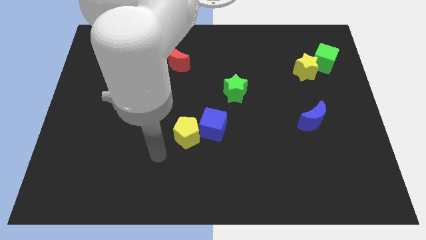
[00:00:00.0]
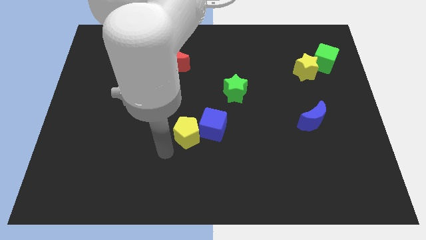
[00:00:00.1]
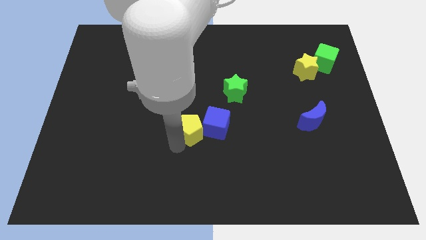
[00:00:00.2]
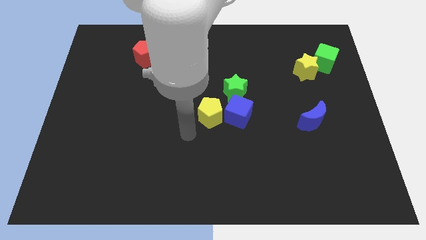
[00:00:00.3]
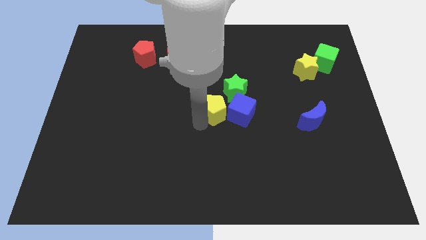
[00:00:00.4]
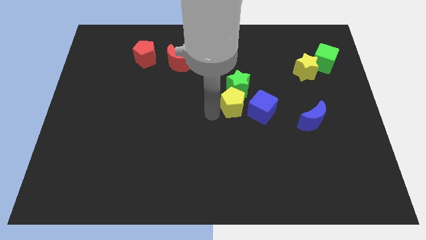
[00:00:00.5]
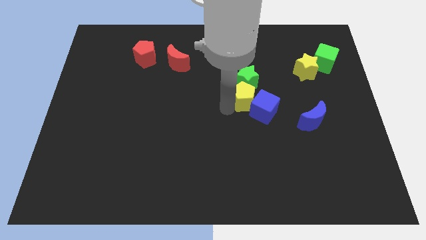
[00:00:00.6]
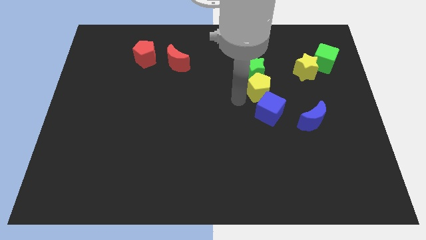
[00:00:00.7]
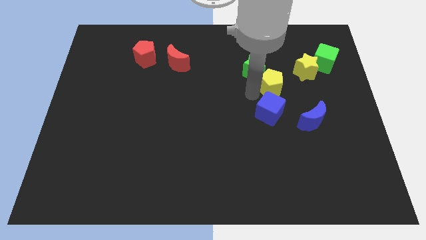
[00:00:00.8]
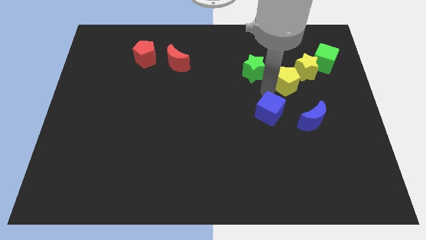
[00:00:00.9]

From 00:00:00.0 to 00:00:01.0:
separate the blue cube from the yellow pentagon

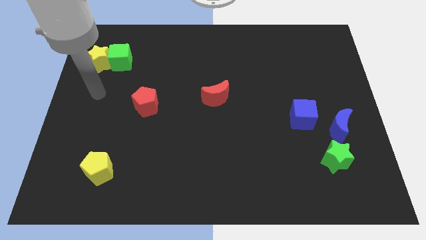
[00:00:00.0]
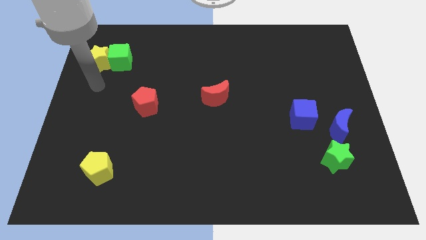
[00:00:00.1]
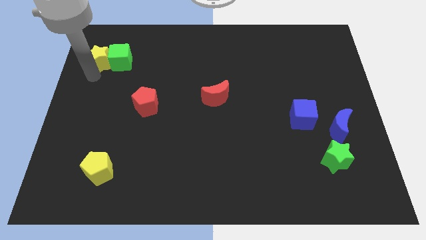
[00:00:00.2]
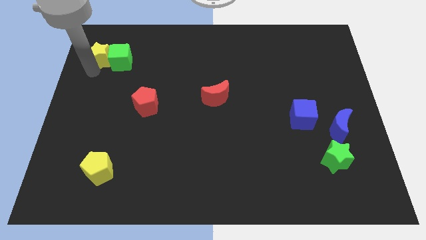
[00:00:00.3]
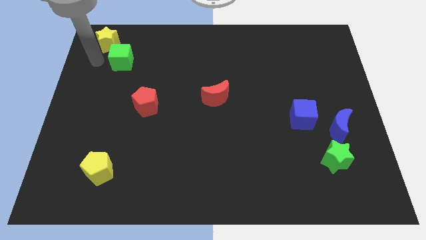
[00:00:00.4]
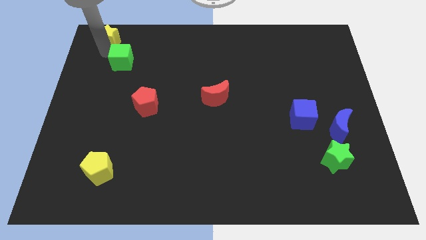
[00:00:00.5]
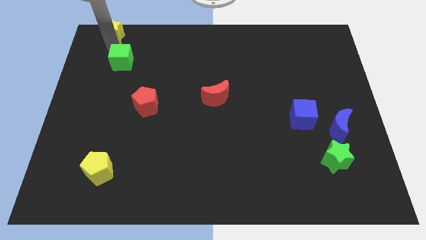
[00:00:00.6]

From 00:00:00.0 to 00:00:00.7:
move the green cube away from the yellow star

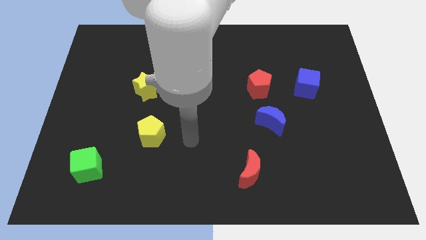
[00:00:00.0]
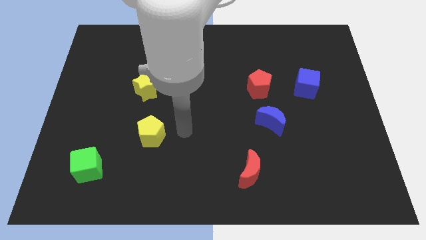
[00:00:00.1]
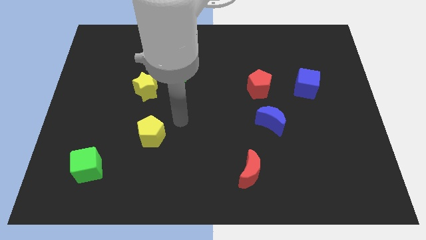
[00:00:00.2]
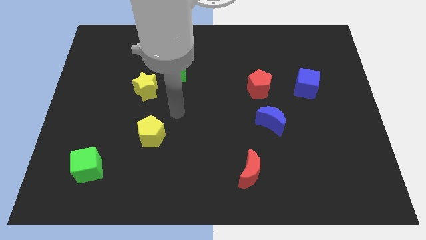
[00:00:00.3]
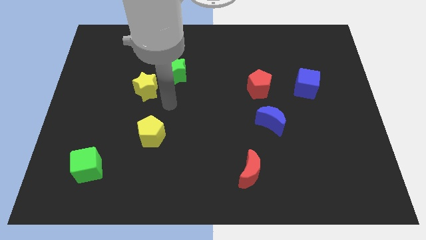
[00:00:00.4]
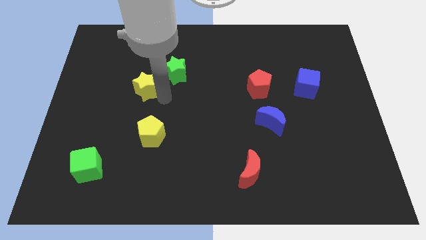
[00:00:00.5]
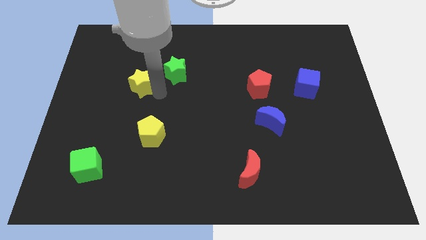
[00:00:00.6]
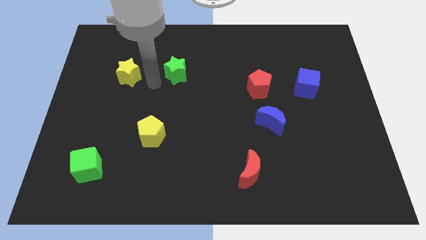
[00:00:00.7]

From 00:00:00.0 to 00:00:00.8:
pull the green star apart from the yellow star

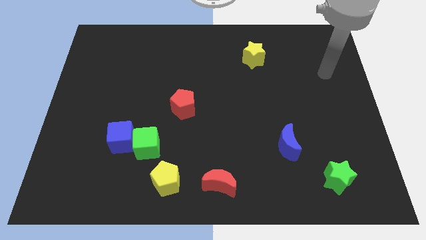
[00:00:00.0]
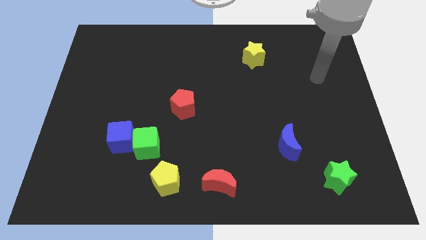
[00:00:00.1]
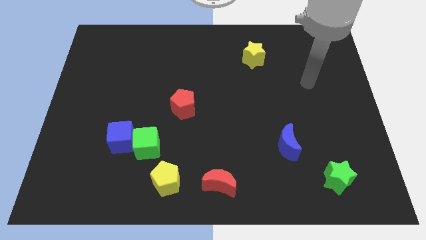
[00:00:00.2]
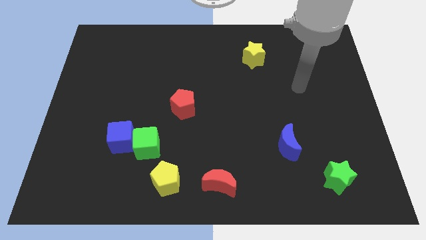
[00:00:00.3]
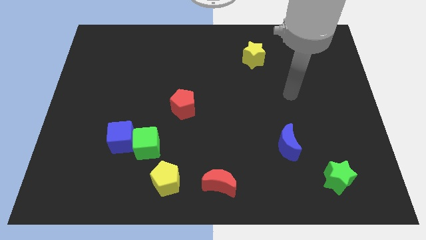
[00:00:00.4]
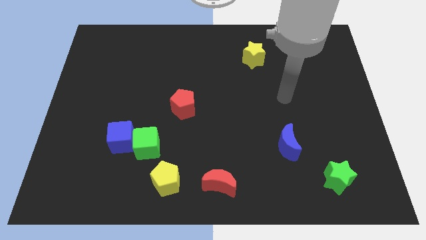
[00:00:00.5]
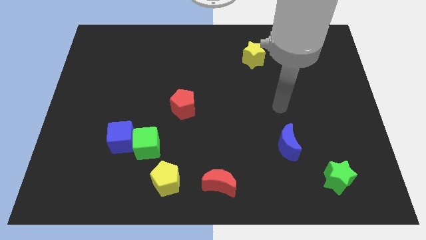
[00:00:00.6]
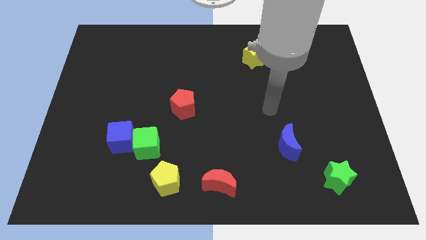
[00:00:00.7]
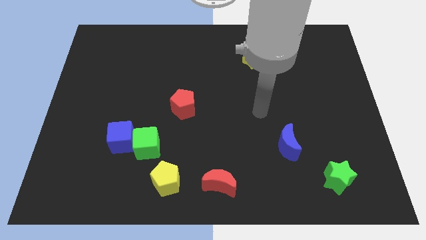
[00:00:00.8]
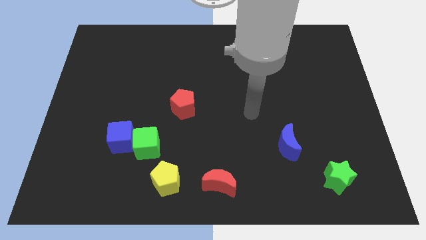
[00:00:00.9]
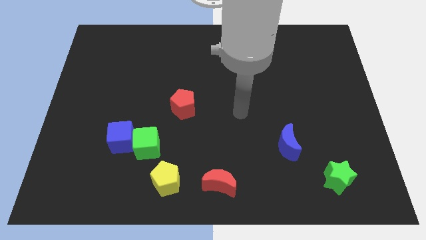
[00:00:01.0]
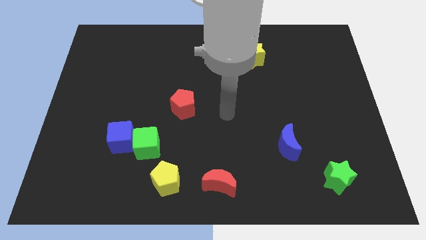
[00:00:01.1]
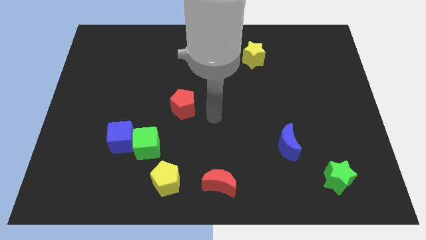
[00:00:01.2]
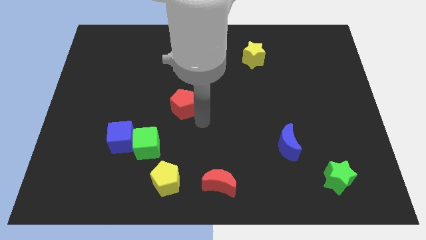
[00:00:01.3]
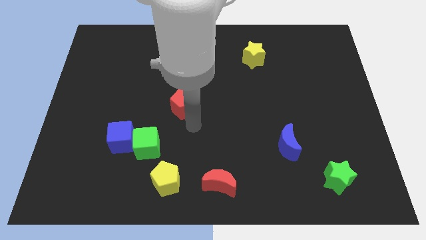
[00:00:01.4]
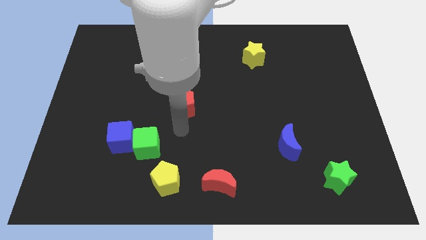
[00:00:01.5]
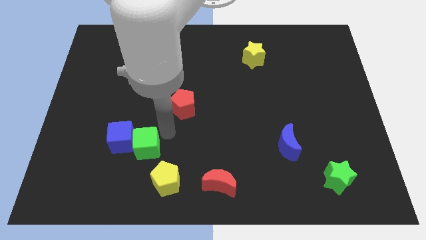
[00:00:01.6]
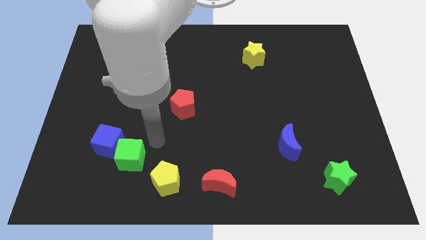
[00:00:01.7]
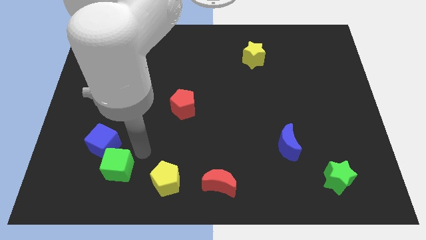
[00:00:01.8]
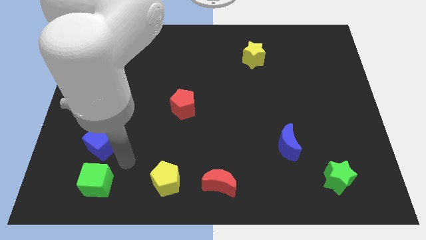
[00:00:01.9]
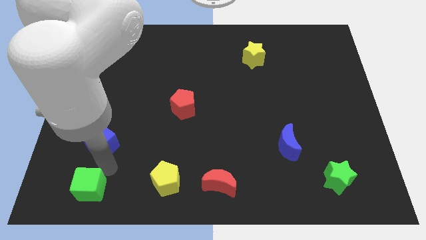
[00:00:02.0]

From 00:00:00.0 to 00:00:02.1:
move the blue cube away from the green cube

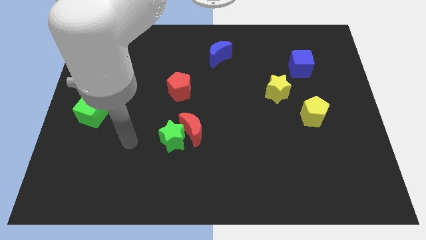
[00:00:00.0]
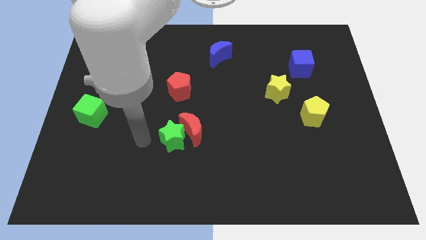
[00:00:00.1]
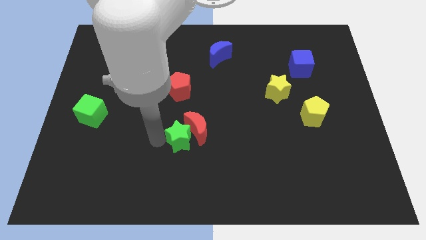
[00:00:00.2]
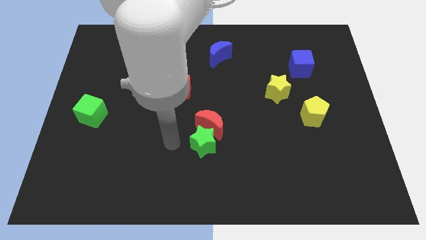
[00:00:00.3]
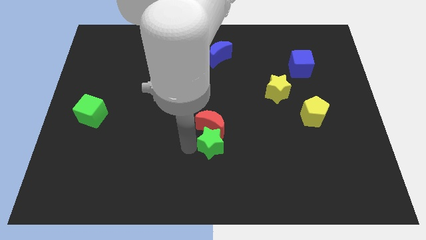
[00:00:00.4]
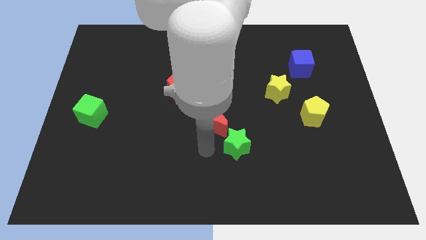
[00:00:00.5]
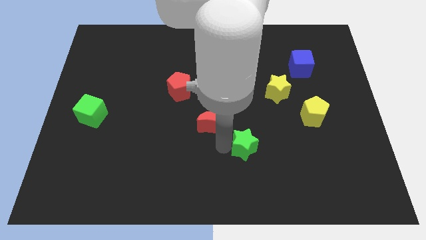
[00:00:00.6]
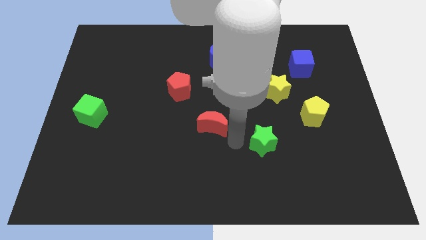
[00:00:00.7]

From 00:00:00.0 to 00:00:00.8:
pull the red moon apart from the green star

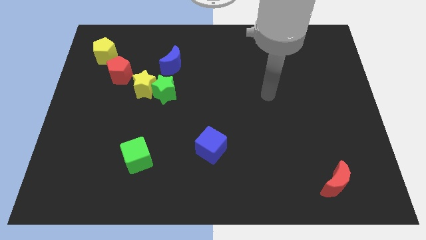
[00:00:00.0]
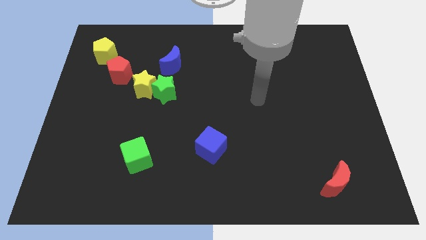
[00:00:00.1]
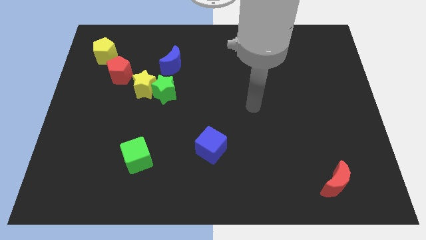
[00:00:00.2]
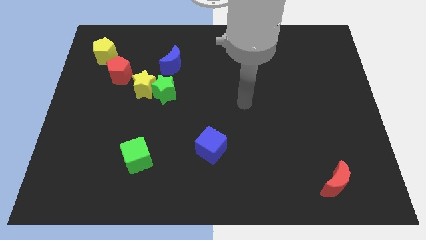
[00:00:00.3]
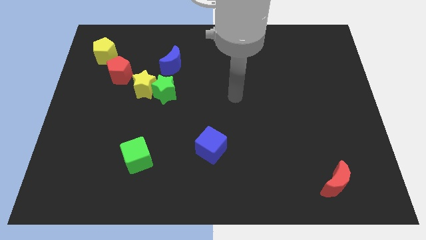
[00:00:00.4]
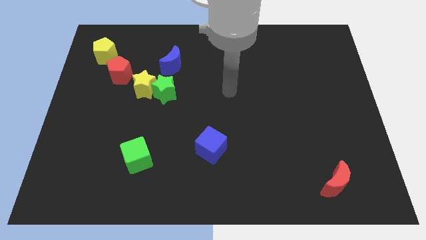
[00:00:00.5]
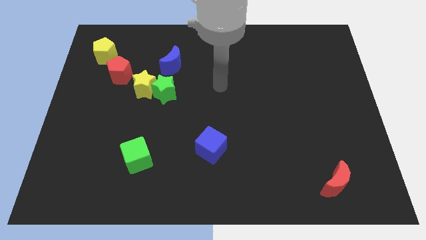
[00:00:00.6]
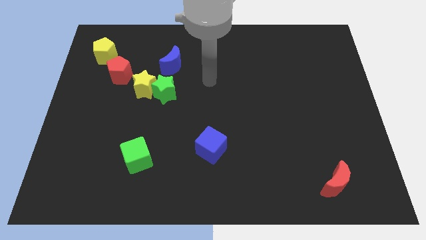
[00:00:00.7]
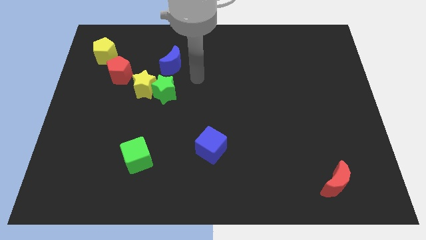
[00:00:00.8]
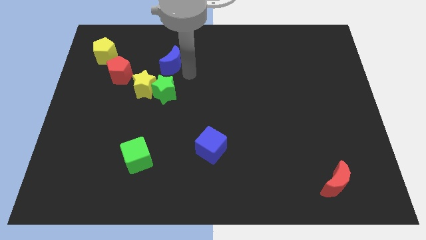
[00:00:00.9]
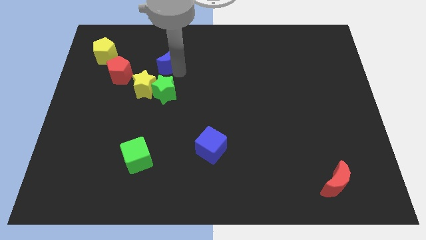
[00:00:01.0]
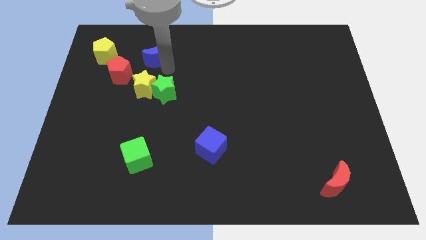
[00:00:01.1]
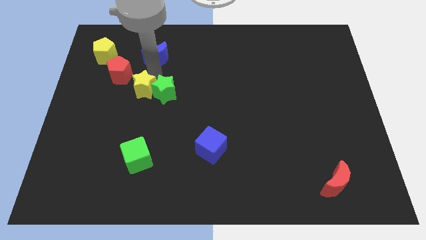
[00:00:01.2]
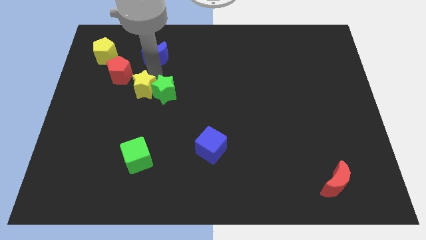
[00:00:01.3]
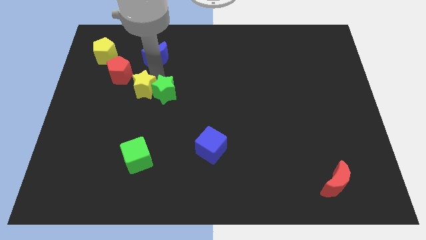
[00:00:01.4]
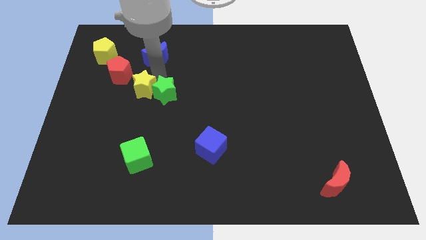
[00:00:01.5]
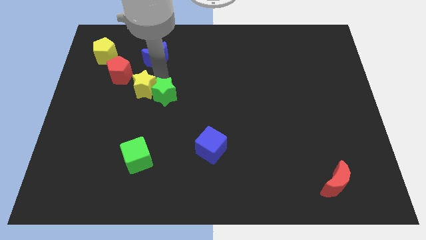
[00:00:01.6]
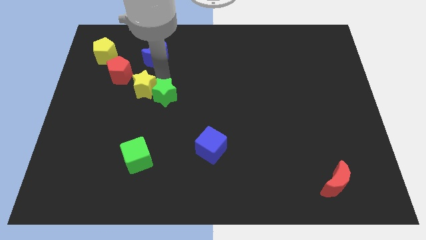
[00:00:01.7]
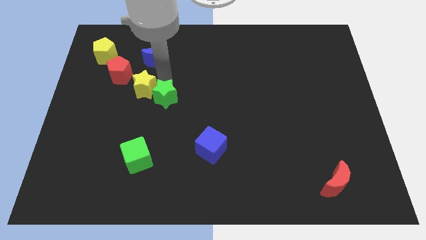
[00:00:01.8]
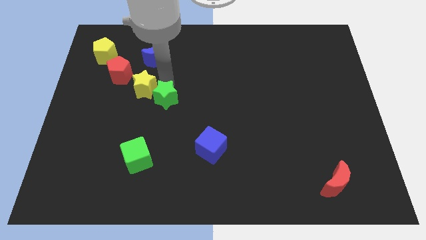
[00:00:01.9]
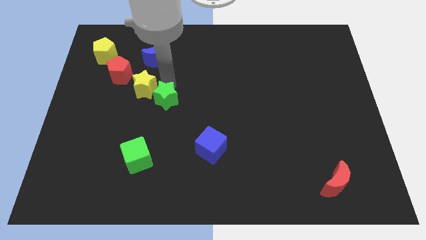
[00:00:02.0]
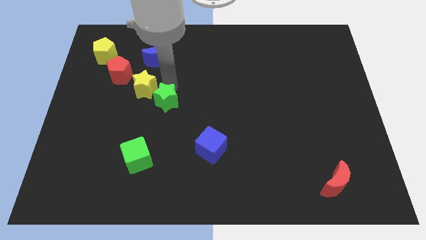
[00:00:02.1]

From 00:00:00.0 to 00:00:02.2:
move the green star away from the yellow star and blue moon

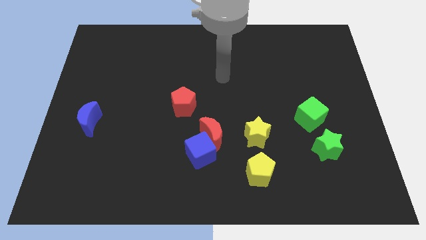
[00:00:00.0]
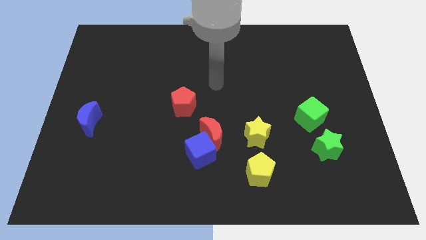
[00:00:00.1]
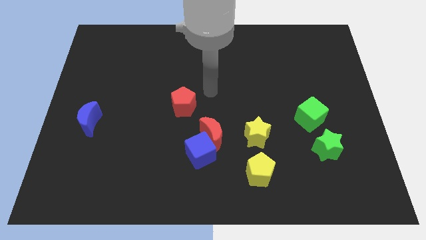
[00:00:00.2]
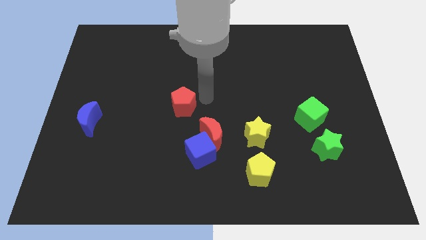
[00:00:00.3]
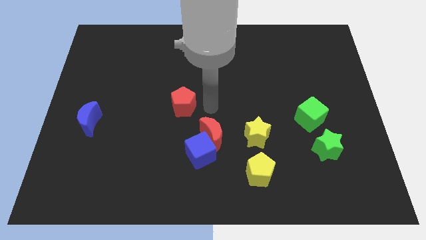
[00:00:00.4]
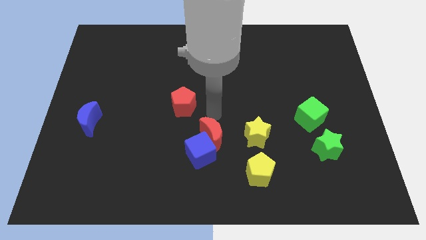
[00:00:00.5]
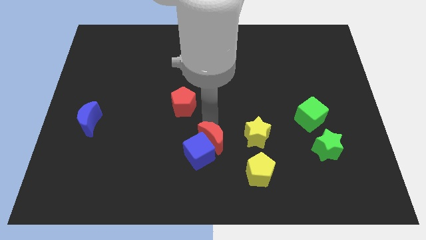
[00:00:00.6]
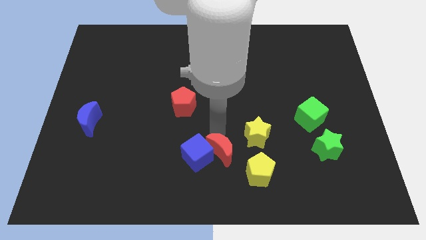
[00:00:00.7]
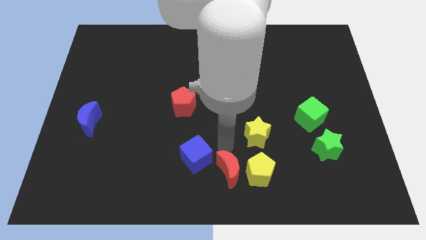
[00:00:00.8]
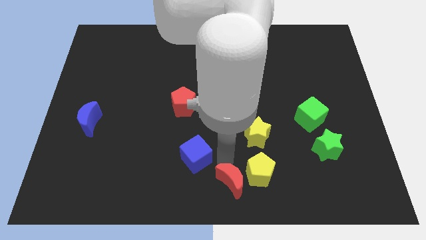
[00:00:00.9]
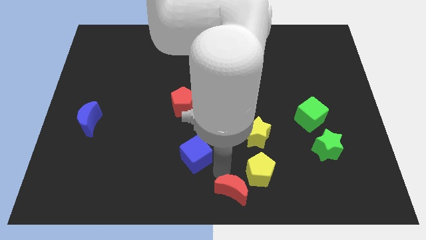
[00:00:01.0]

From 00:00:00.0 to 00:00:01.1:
move the blue cube away from the red moon

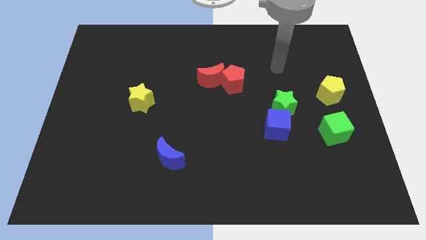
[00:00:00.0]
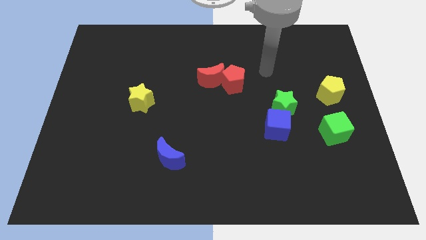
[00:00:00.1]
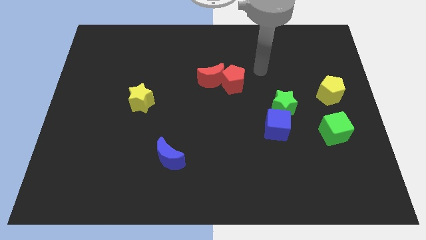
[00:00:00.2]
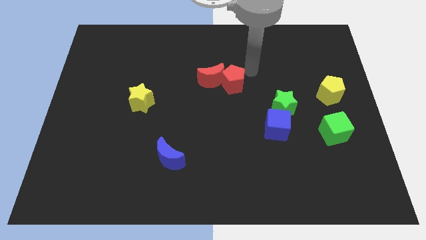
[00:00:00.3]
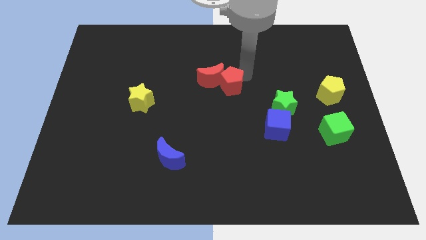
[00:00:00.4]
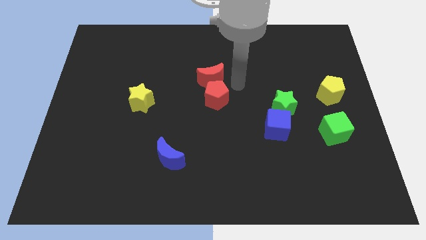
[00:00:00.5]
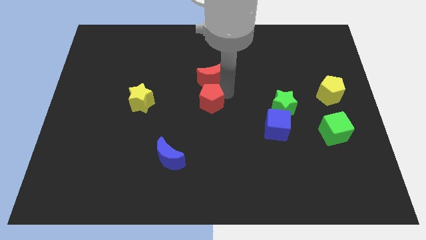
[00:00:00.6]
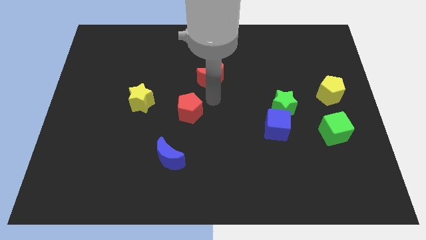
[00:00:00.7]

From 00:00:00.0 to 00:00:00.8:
move the red moon away from the red pentagon
